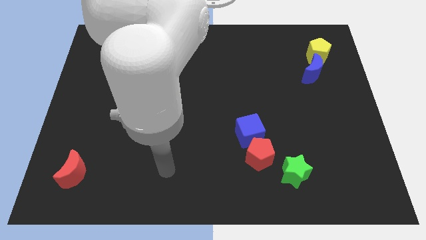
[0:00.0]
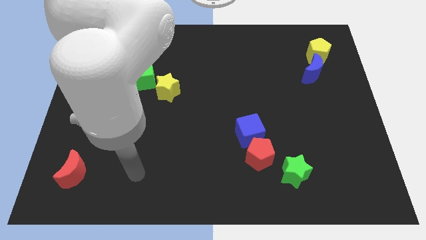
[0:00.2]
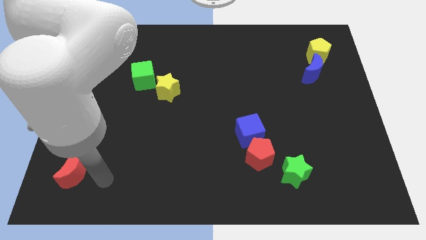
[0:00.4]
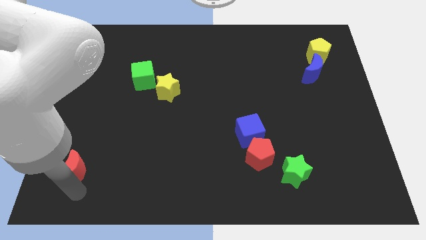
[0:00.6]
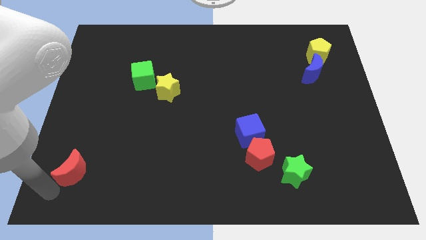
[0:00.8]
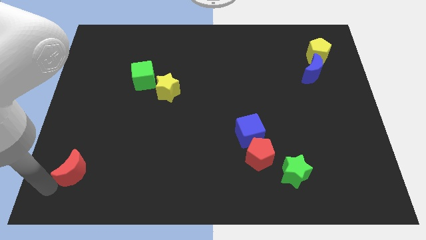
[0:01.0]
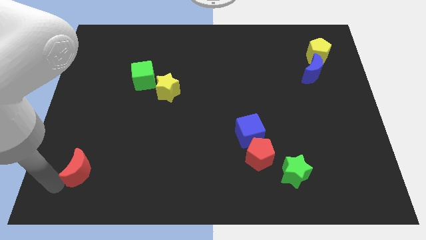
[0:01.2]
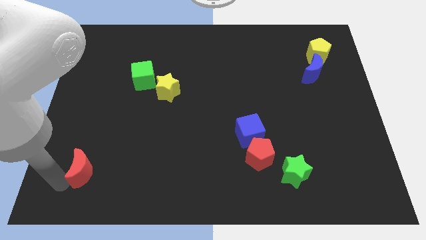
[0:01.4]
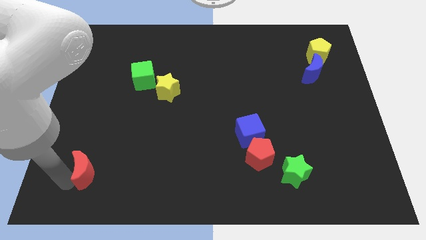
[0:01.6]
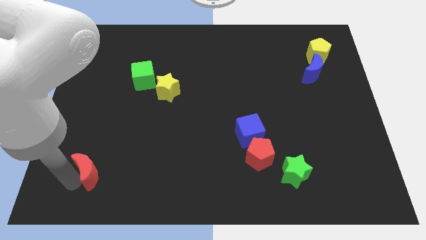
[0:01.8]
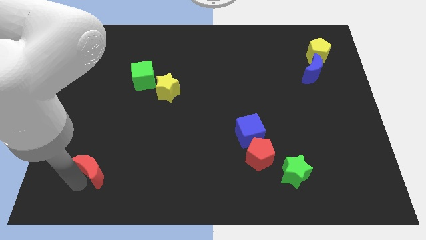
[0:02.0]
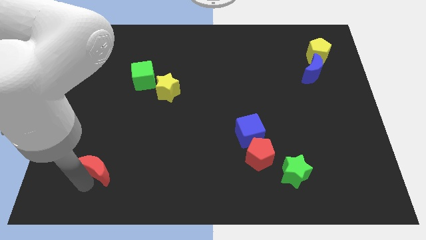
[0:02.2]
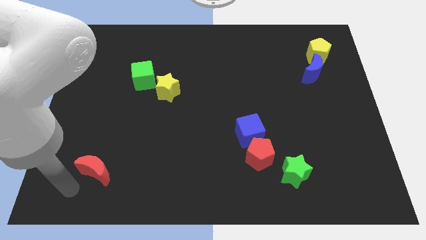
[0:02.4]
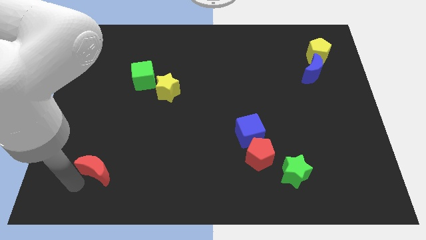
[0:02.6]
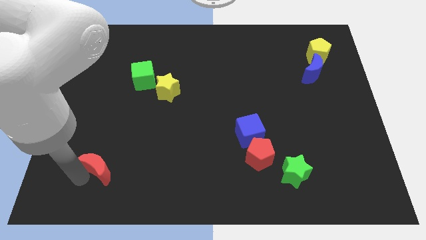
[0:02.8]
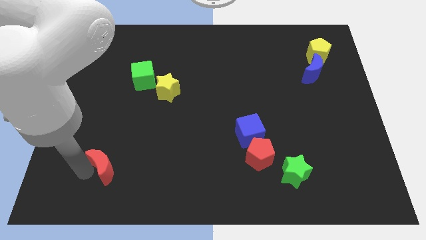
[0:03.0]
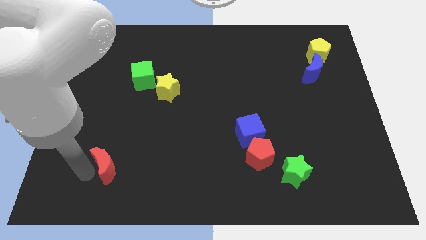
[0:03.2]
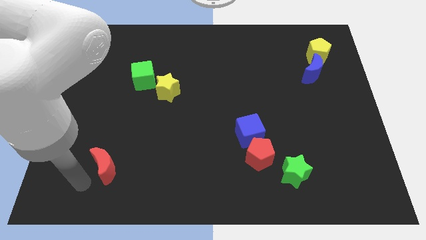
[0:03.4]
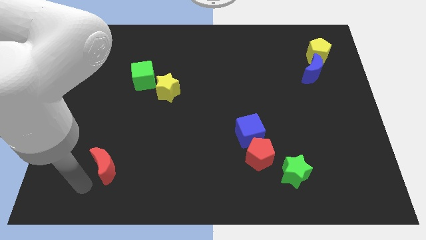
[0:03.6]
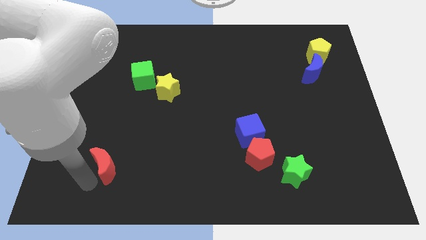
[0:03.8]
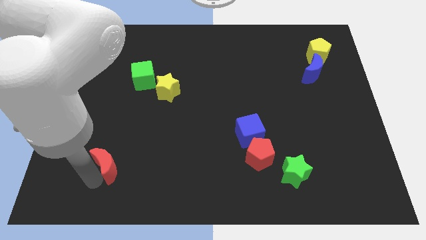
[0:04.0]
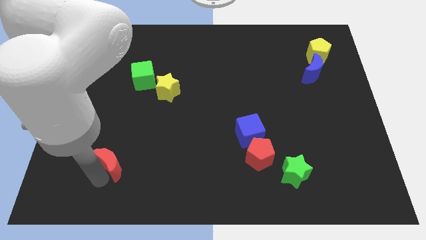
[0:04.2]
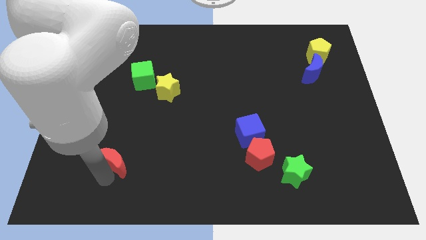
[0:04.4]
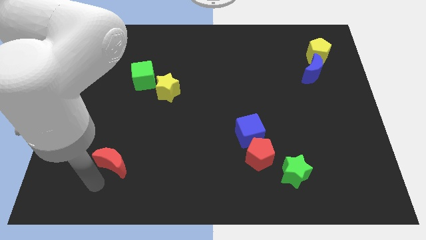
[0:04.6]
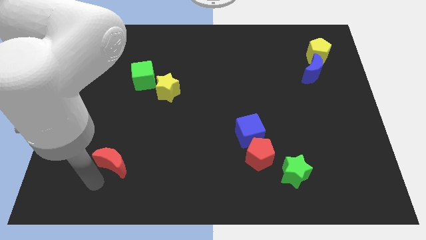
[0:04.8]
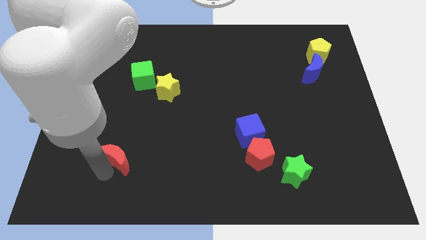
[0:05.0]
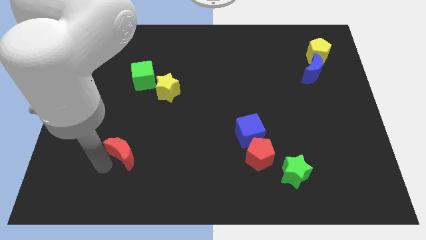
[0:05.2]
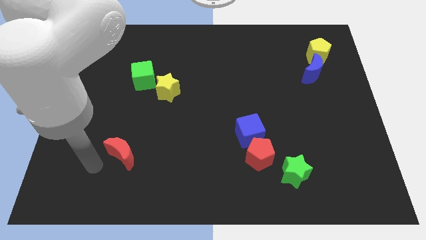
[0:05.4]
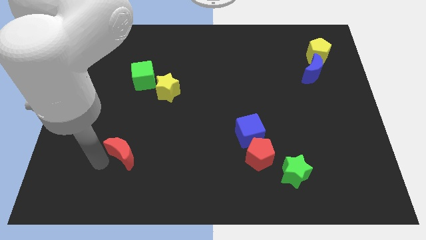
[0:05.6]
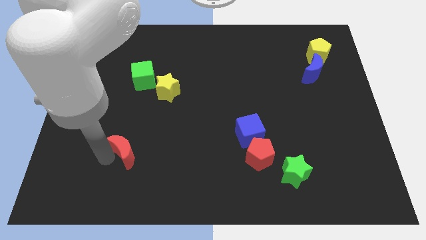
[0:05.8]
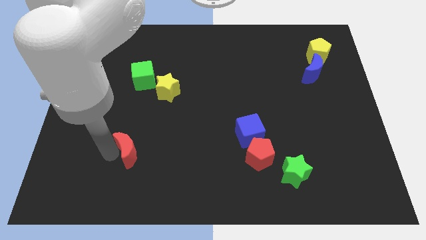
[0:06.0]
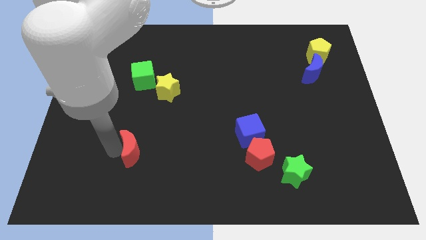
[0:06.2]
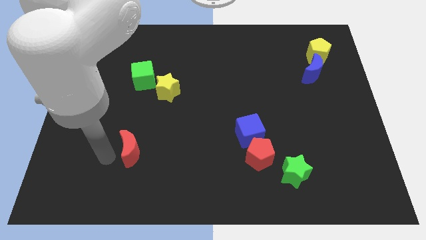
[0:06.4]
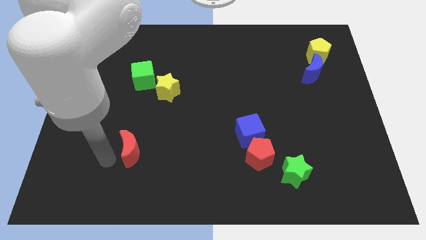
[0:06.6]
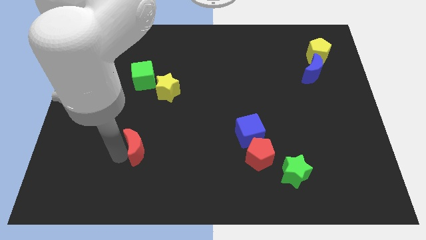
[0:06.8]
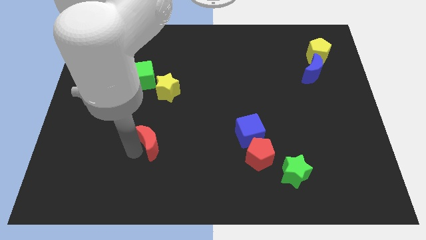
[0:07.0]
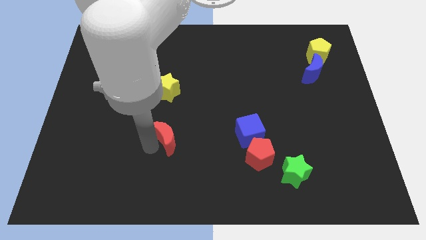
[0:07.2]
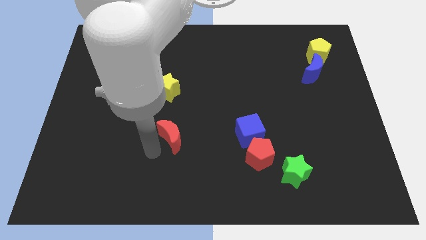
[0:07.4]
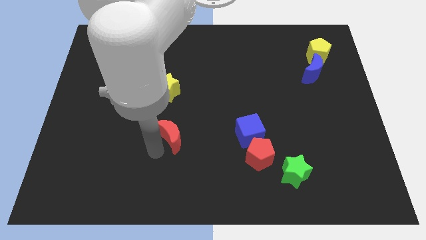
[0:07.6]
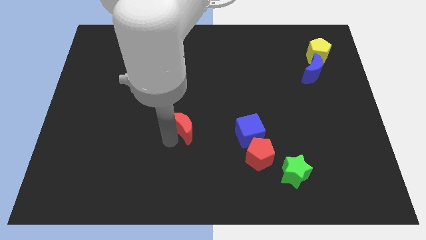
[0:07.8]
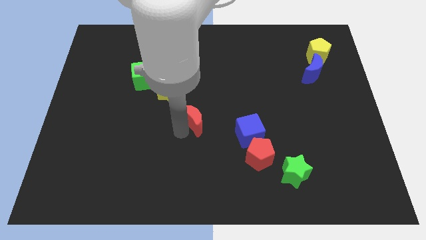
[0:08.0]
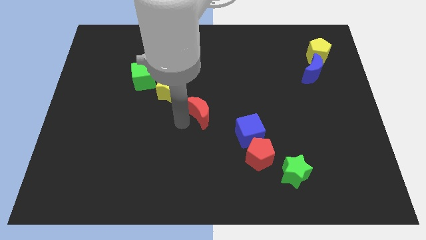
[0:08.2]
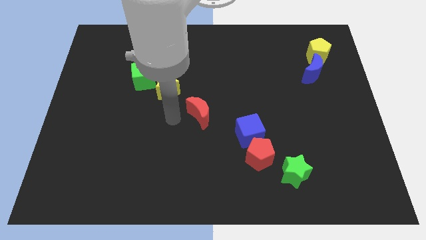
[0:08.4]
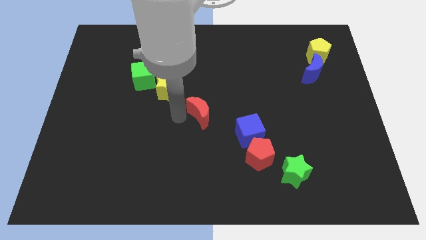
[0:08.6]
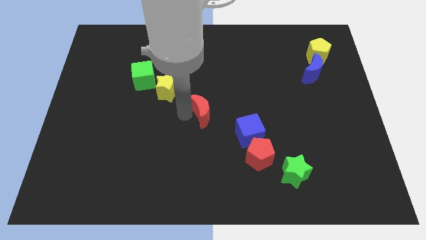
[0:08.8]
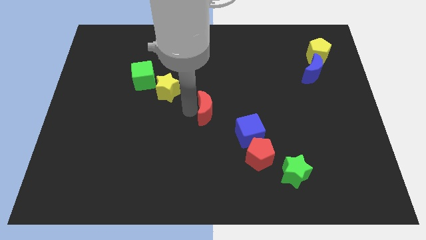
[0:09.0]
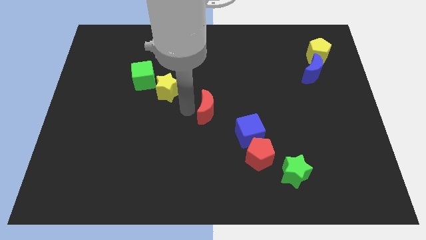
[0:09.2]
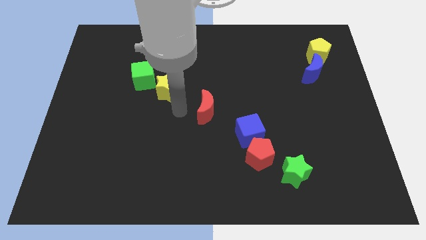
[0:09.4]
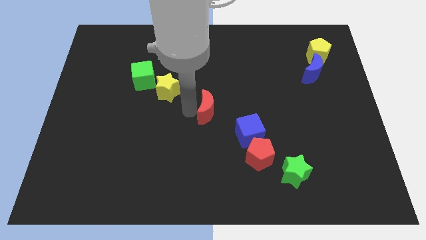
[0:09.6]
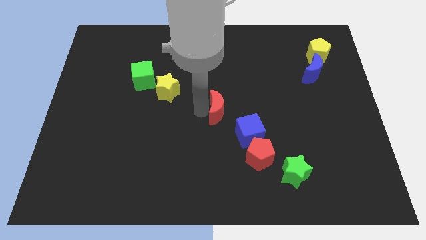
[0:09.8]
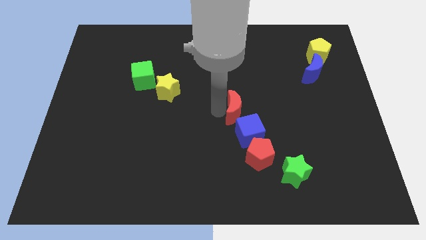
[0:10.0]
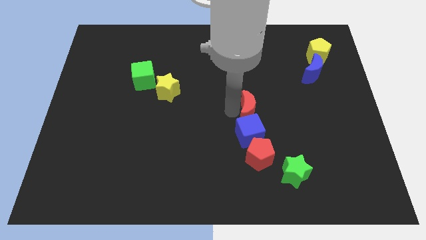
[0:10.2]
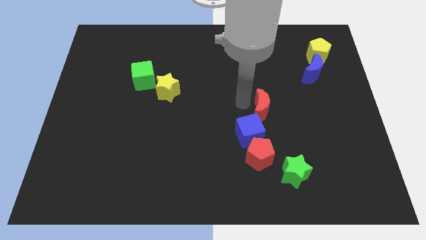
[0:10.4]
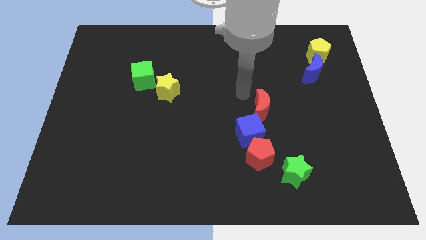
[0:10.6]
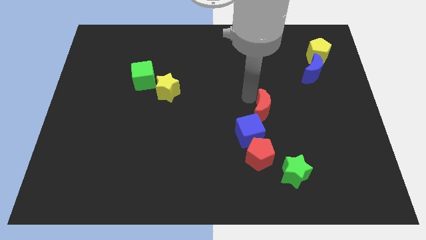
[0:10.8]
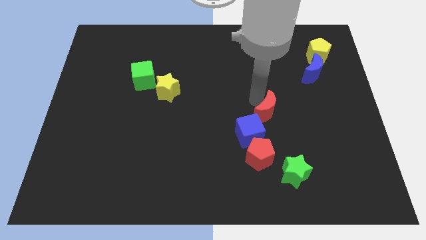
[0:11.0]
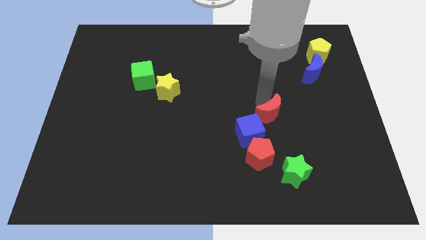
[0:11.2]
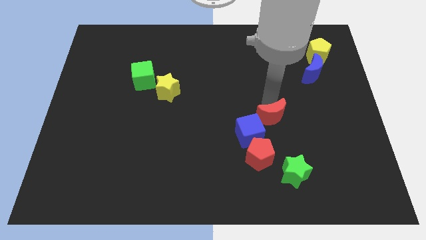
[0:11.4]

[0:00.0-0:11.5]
move the red moon above the green star

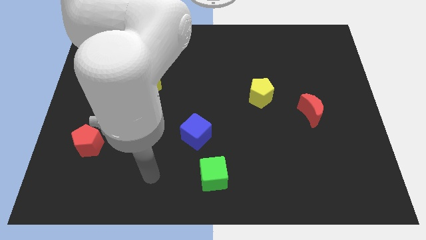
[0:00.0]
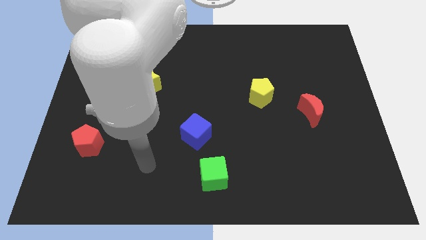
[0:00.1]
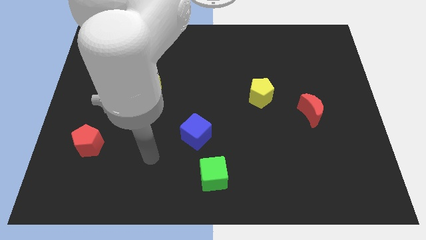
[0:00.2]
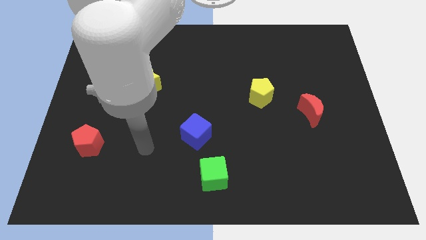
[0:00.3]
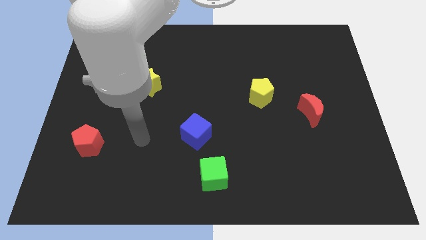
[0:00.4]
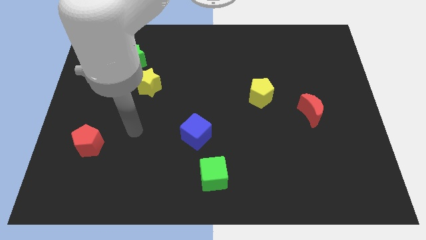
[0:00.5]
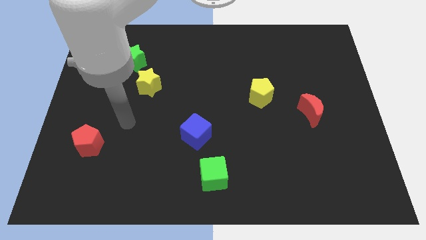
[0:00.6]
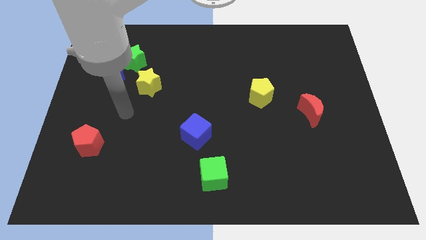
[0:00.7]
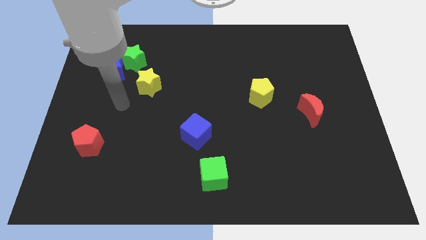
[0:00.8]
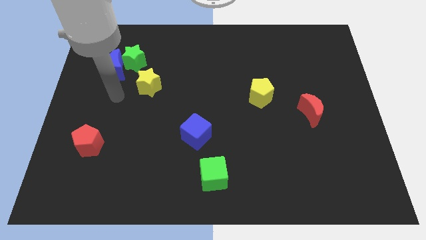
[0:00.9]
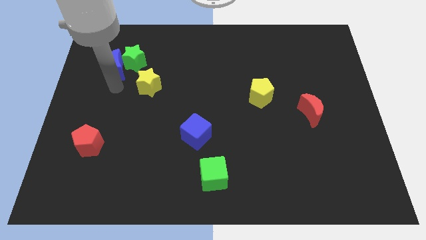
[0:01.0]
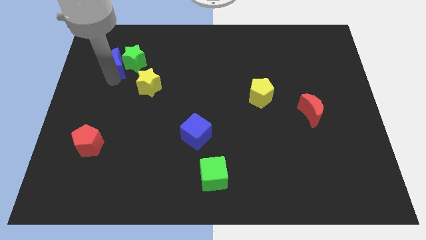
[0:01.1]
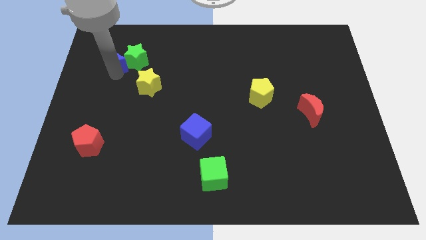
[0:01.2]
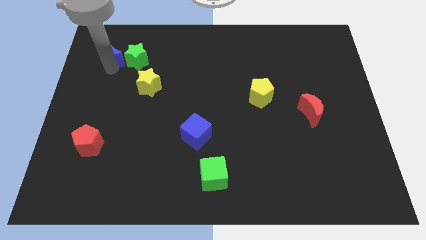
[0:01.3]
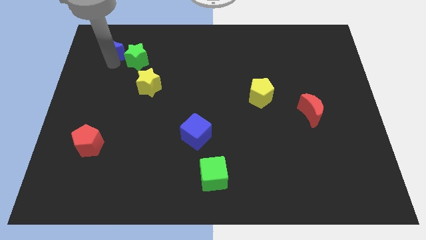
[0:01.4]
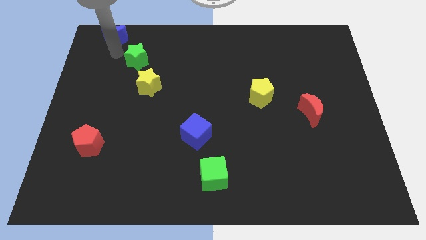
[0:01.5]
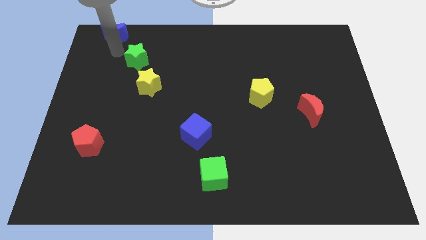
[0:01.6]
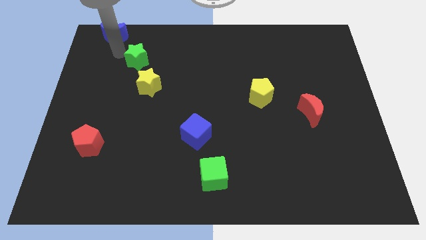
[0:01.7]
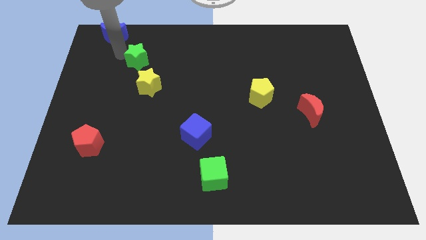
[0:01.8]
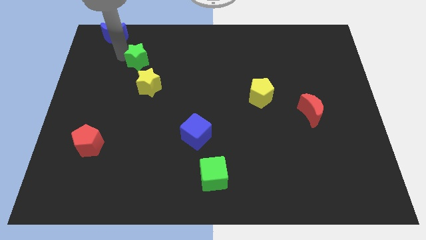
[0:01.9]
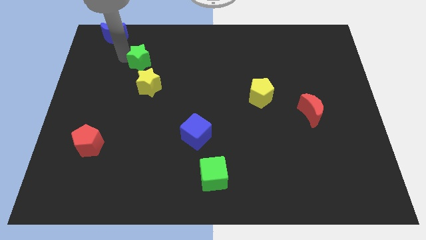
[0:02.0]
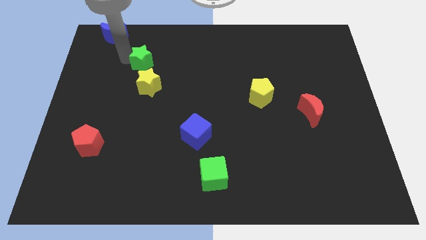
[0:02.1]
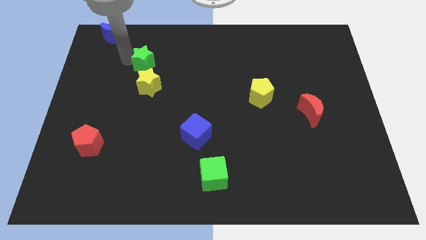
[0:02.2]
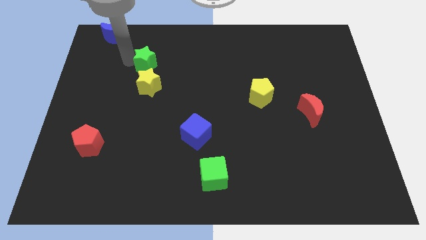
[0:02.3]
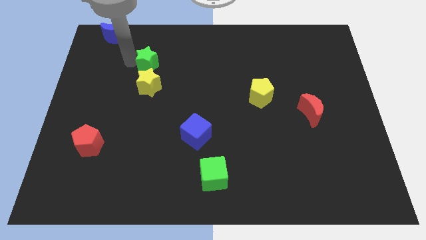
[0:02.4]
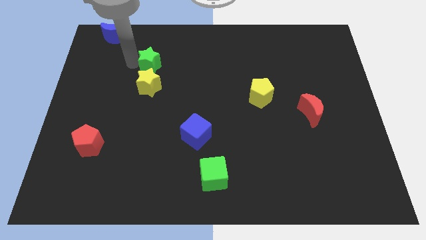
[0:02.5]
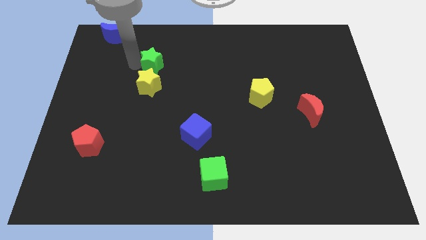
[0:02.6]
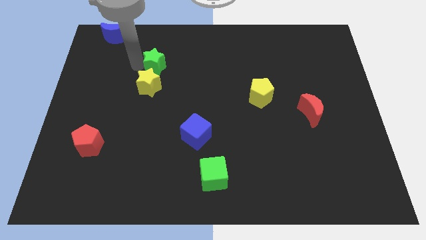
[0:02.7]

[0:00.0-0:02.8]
move the green star to the top right side of the yellow star
